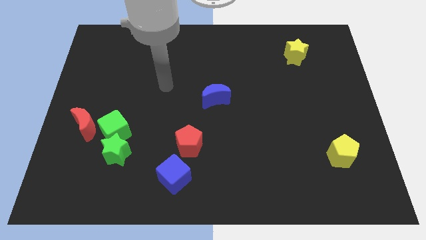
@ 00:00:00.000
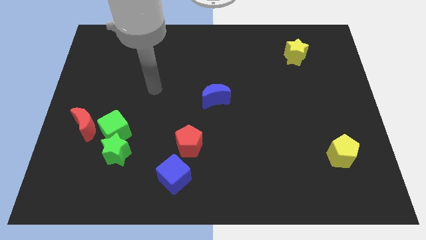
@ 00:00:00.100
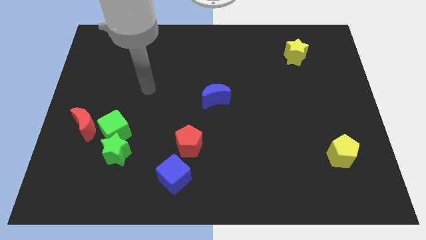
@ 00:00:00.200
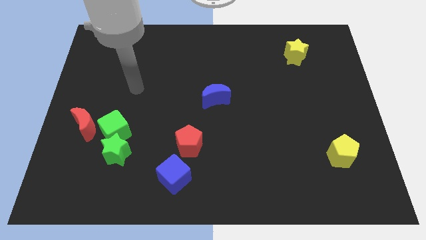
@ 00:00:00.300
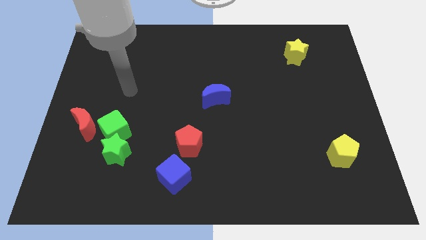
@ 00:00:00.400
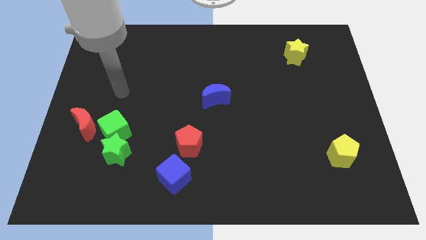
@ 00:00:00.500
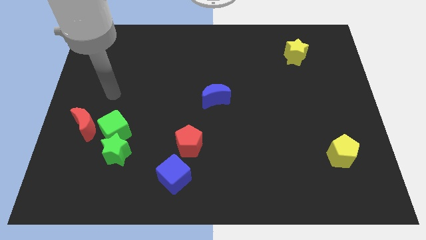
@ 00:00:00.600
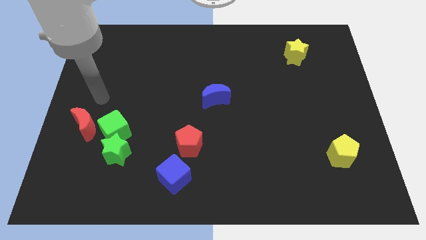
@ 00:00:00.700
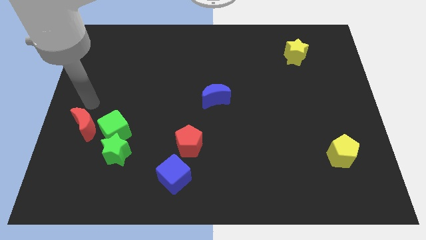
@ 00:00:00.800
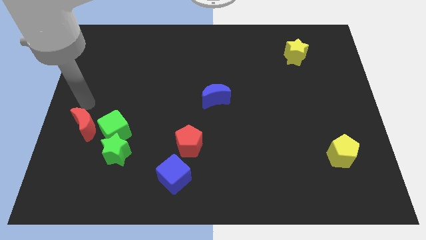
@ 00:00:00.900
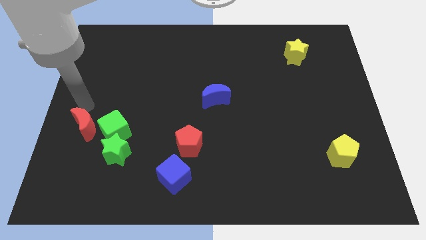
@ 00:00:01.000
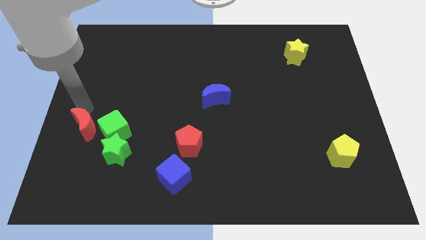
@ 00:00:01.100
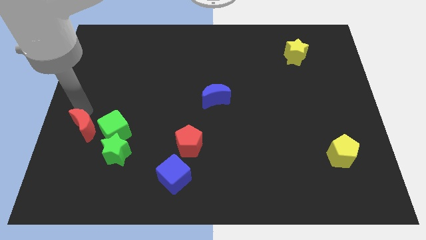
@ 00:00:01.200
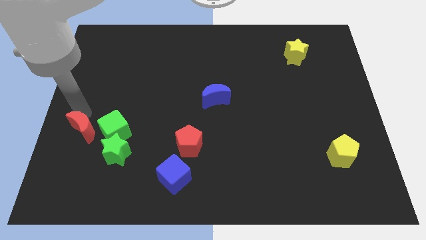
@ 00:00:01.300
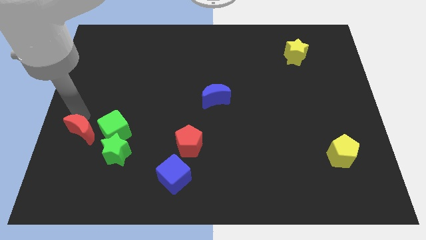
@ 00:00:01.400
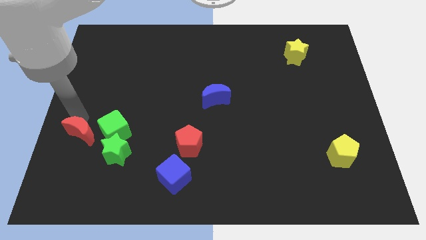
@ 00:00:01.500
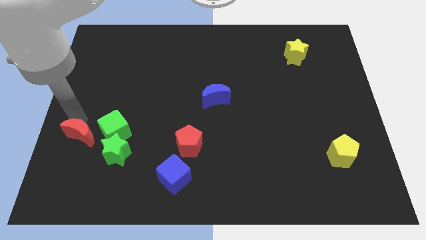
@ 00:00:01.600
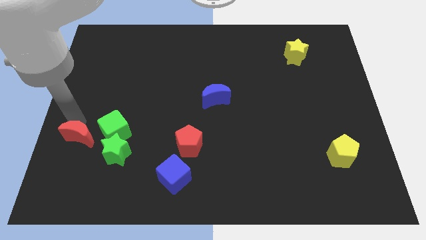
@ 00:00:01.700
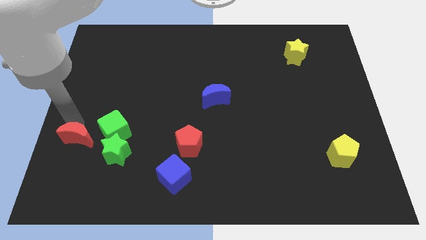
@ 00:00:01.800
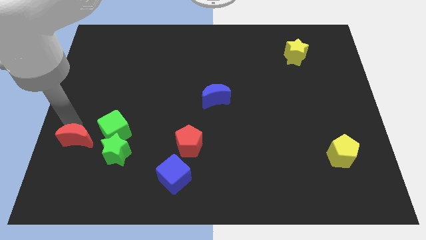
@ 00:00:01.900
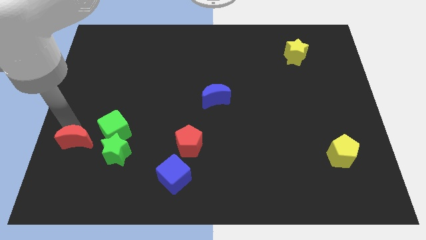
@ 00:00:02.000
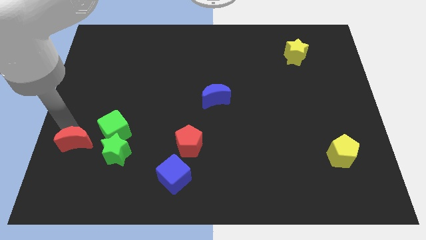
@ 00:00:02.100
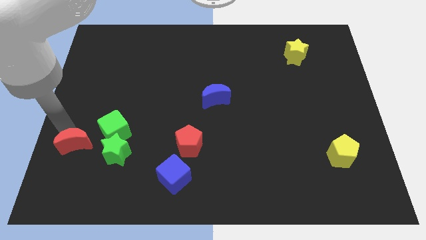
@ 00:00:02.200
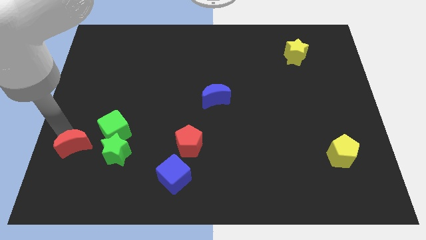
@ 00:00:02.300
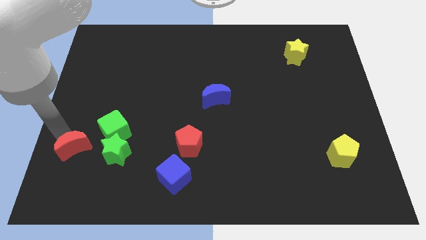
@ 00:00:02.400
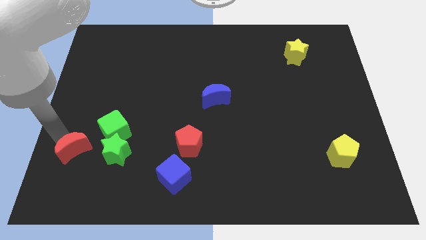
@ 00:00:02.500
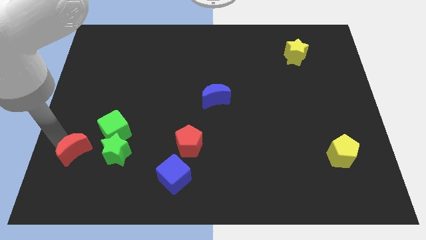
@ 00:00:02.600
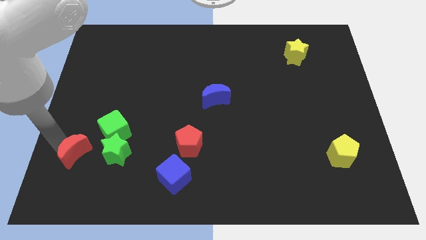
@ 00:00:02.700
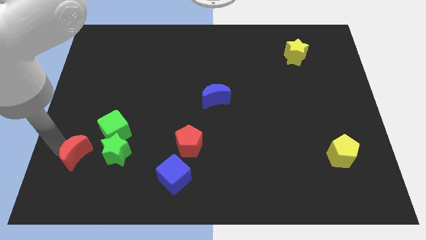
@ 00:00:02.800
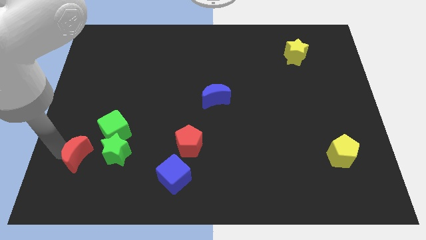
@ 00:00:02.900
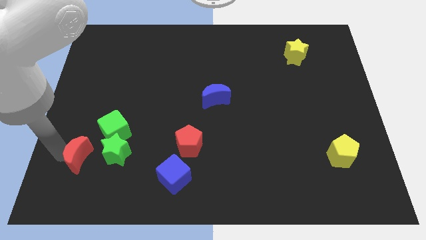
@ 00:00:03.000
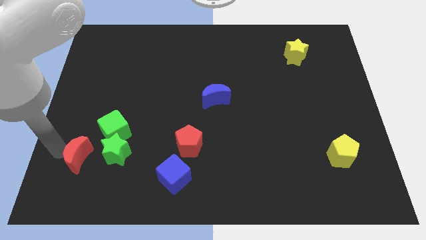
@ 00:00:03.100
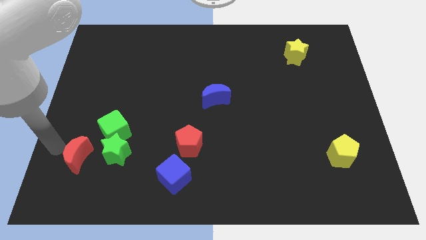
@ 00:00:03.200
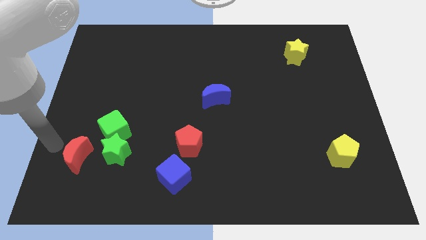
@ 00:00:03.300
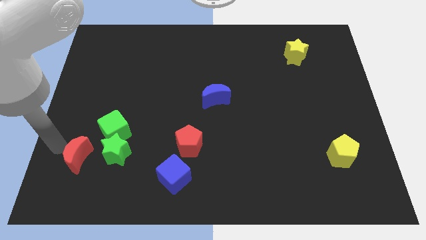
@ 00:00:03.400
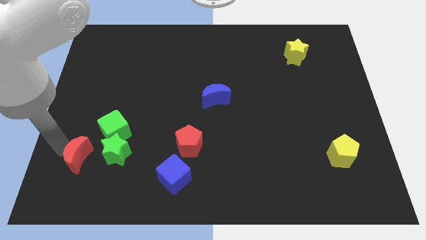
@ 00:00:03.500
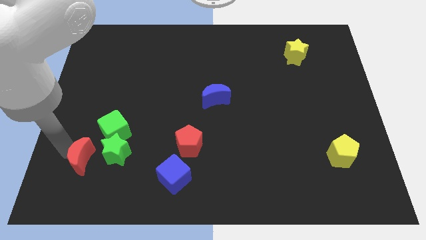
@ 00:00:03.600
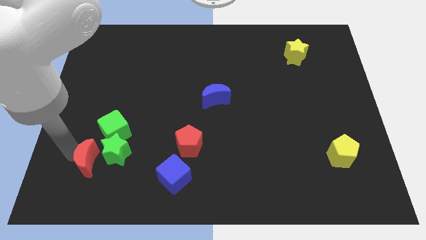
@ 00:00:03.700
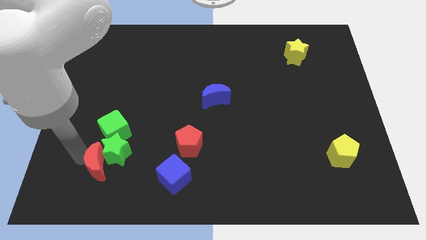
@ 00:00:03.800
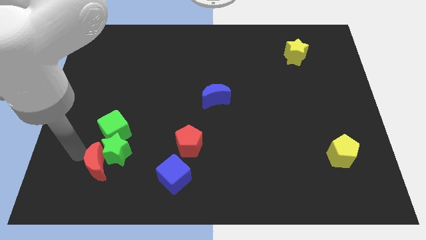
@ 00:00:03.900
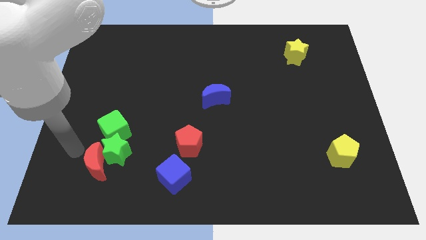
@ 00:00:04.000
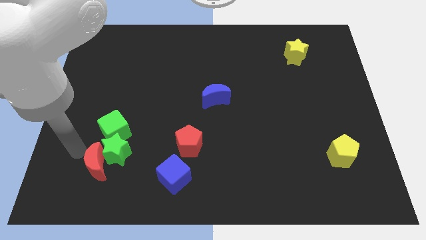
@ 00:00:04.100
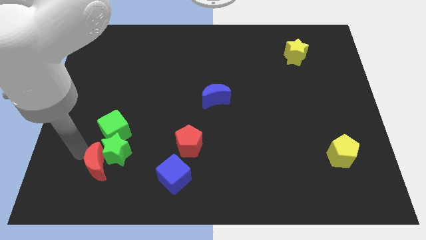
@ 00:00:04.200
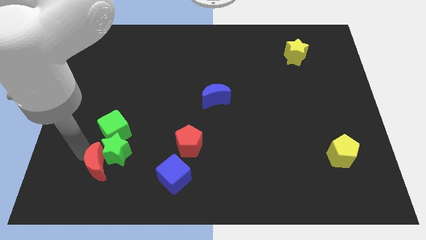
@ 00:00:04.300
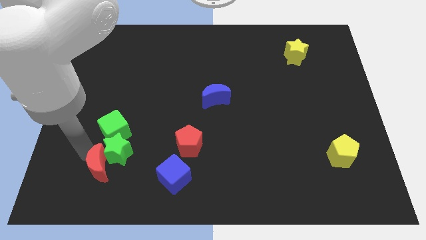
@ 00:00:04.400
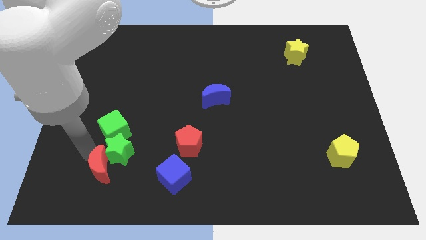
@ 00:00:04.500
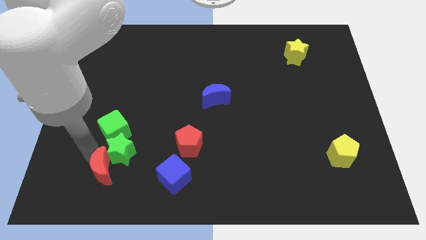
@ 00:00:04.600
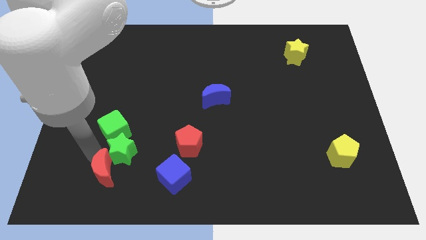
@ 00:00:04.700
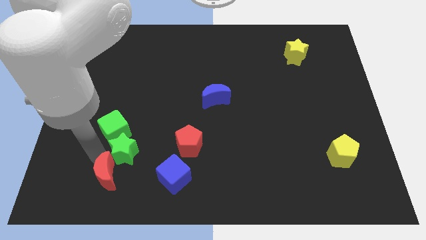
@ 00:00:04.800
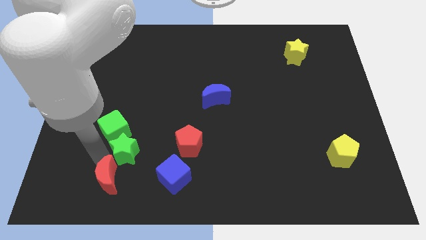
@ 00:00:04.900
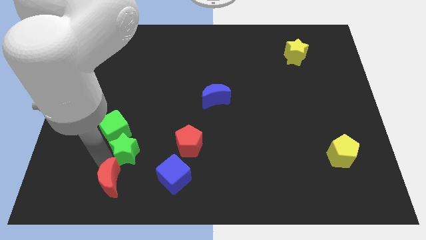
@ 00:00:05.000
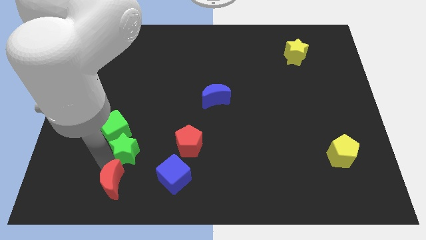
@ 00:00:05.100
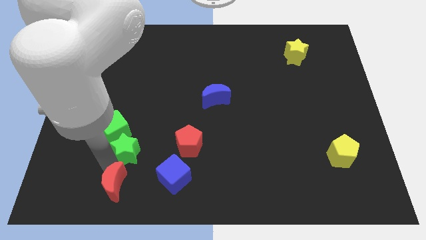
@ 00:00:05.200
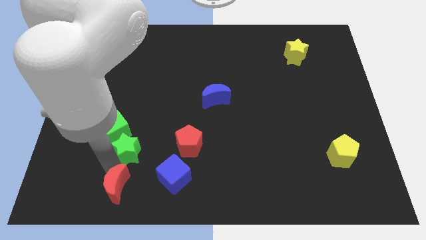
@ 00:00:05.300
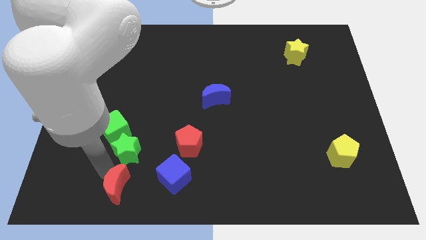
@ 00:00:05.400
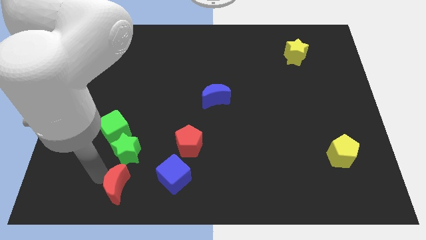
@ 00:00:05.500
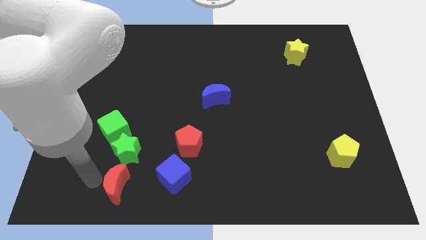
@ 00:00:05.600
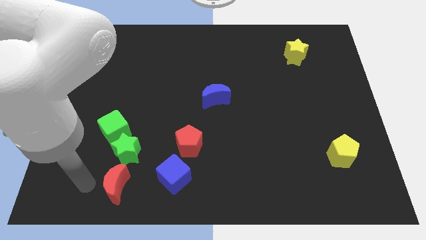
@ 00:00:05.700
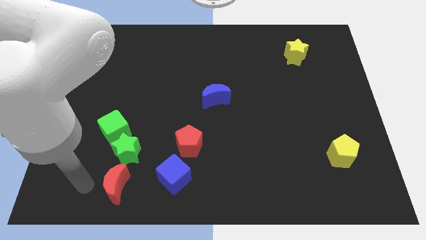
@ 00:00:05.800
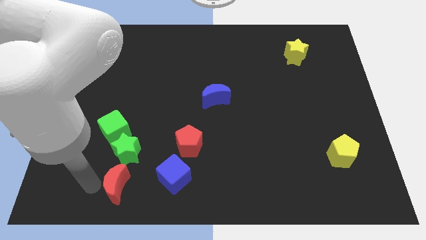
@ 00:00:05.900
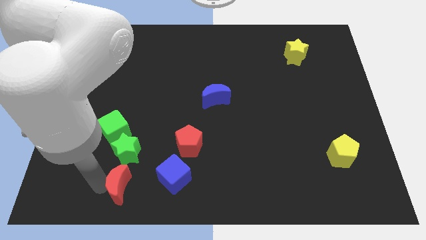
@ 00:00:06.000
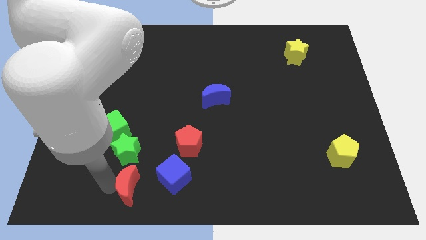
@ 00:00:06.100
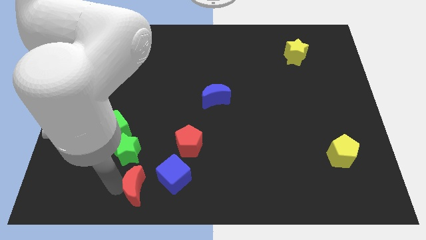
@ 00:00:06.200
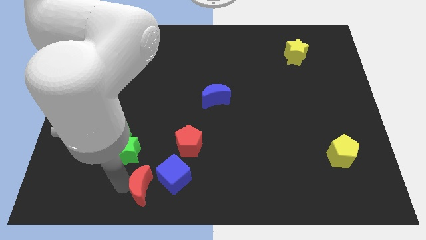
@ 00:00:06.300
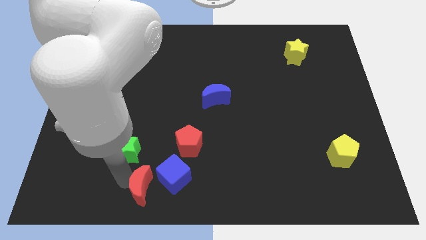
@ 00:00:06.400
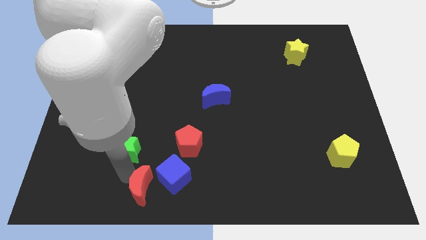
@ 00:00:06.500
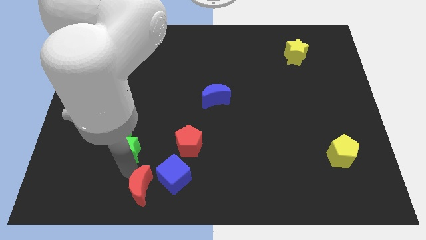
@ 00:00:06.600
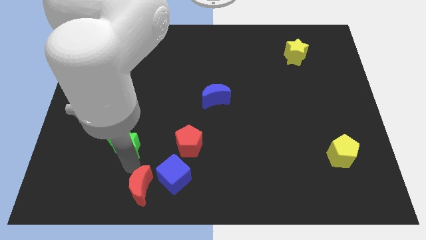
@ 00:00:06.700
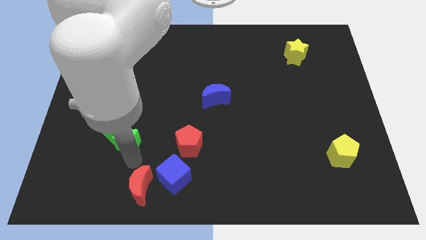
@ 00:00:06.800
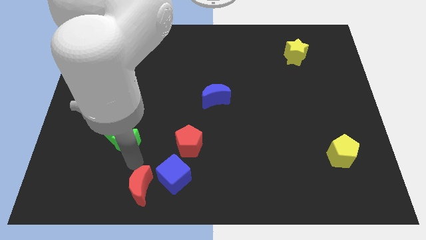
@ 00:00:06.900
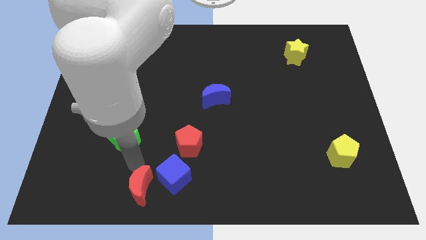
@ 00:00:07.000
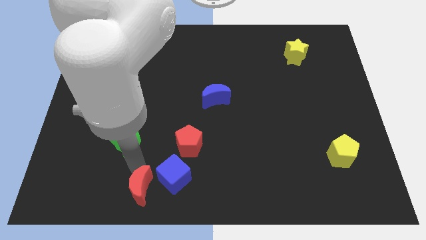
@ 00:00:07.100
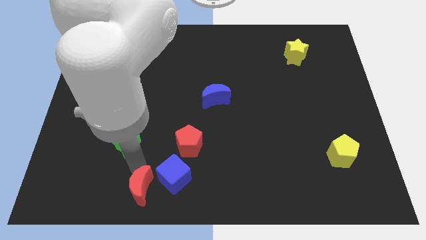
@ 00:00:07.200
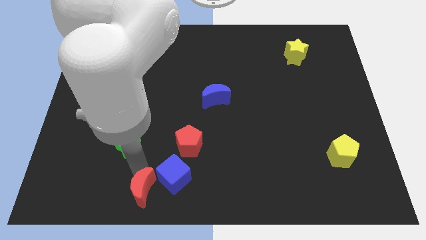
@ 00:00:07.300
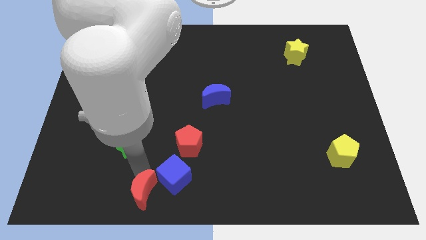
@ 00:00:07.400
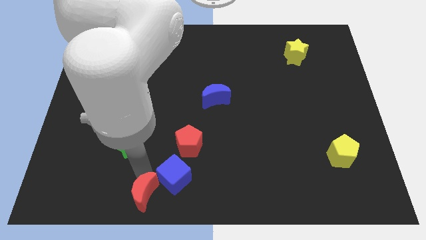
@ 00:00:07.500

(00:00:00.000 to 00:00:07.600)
put the red moon to the bottom side
